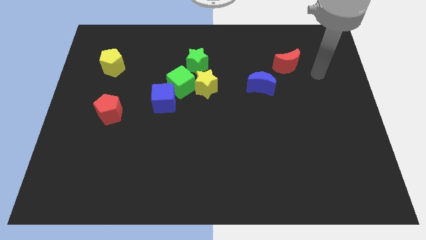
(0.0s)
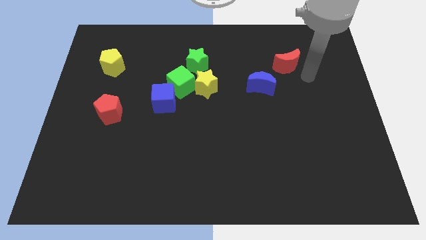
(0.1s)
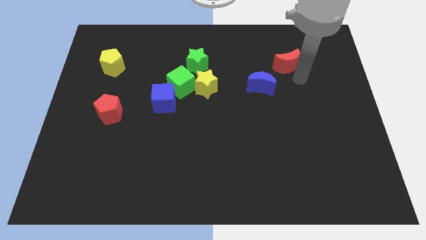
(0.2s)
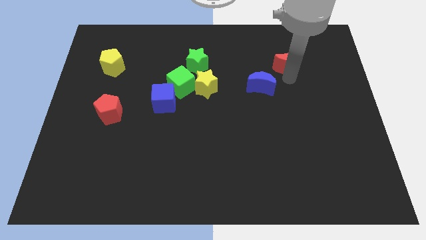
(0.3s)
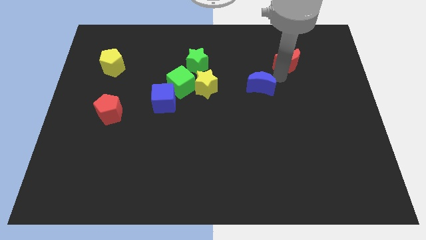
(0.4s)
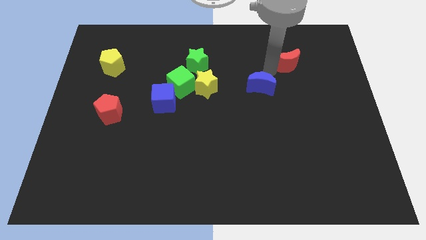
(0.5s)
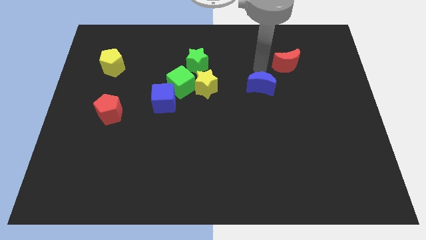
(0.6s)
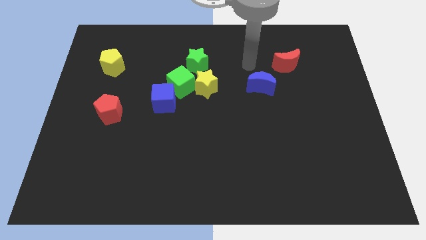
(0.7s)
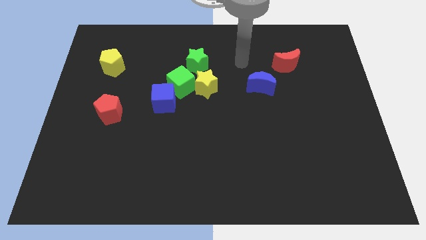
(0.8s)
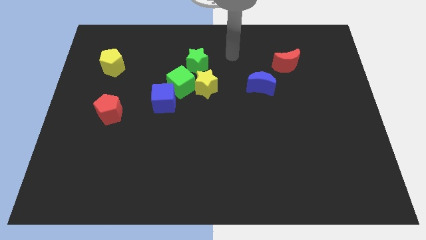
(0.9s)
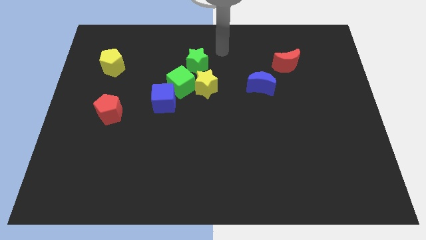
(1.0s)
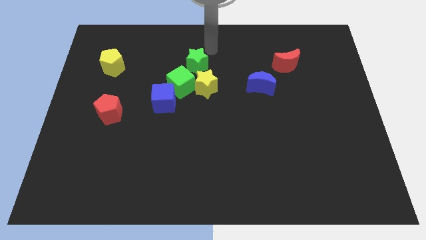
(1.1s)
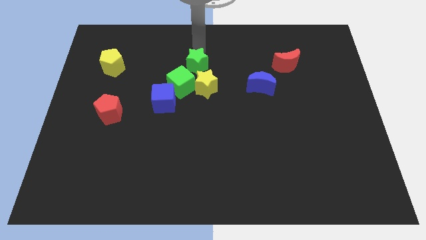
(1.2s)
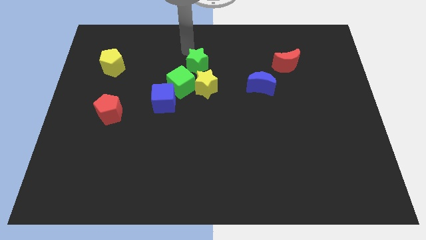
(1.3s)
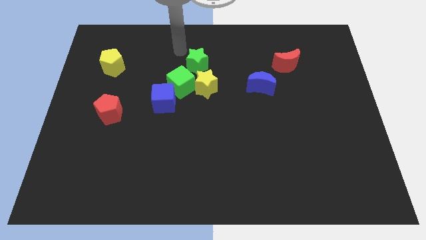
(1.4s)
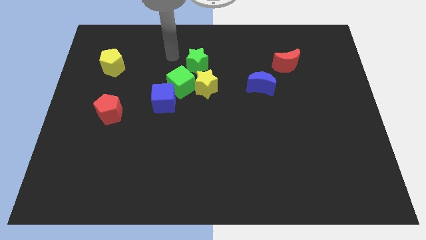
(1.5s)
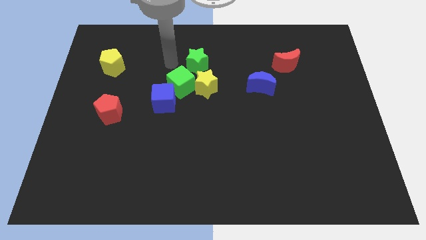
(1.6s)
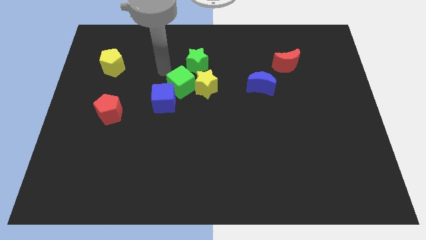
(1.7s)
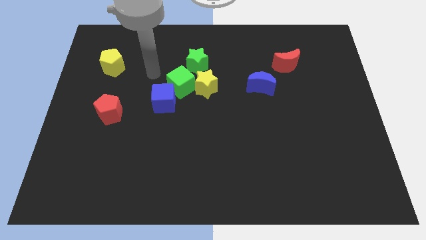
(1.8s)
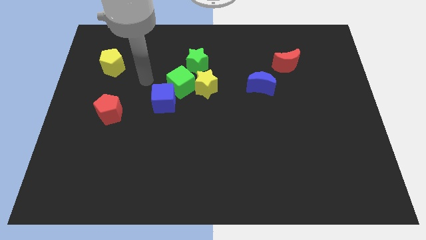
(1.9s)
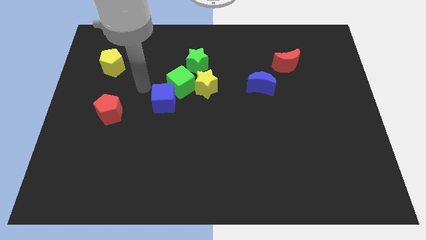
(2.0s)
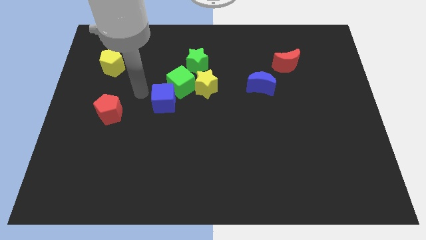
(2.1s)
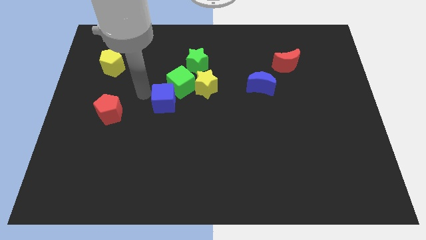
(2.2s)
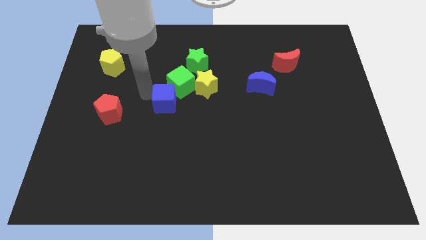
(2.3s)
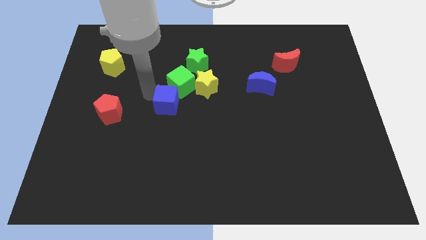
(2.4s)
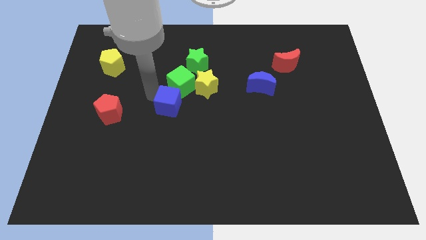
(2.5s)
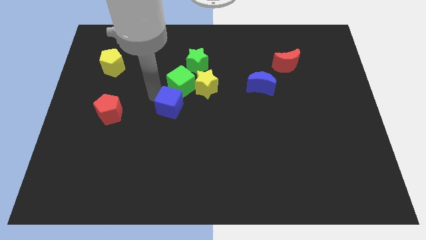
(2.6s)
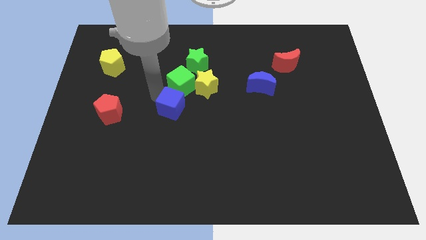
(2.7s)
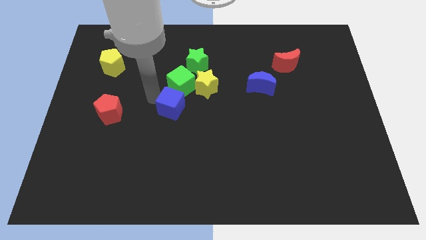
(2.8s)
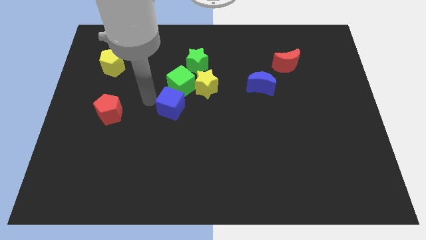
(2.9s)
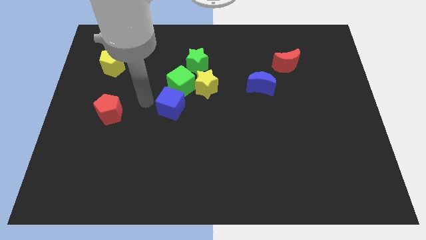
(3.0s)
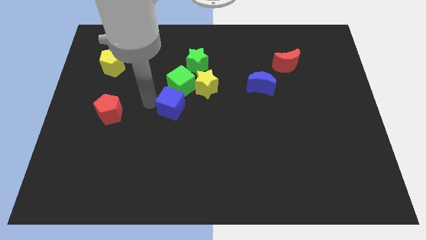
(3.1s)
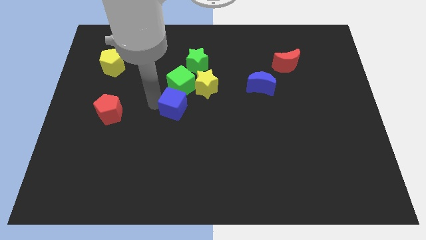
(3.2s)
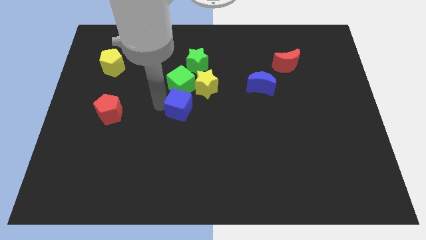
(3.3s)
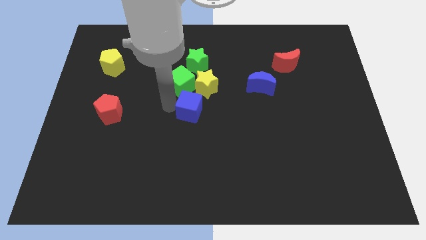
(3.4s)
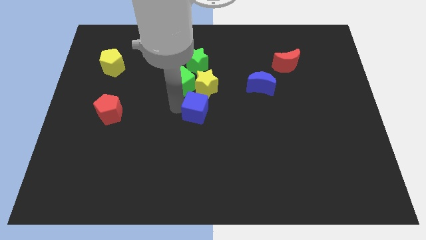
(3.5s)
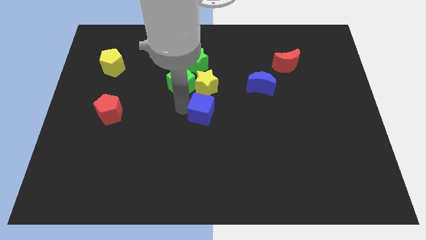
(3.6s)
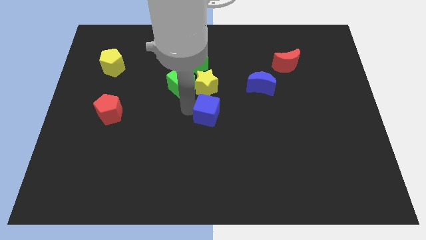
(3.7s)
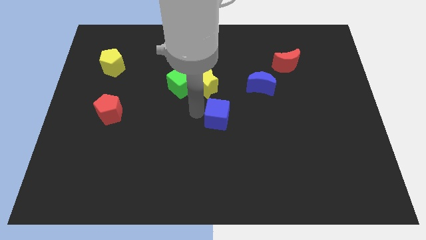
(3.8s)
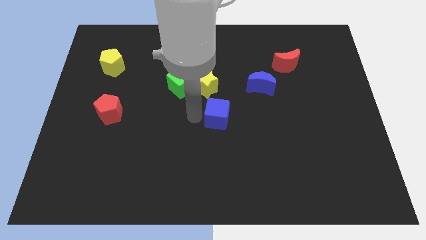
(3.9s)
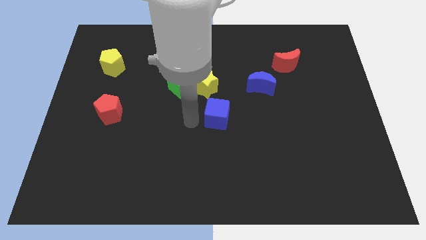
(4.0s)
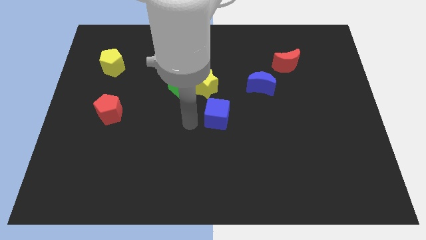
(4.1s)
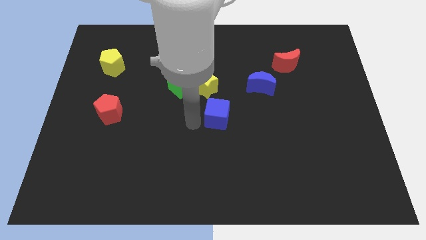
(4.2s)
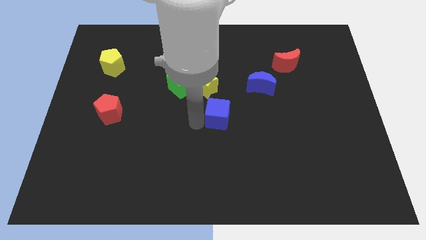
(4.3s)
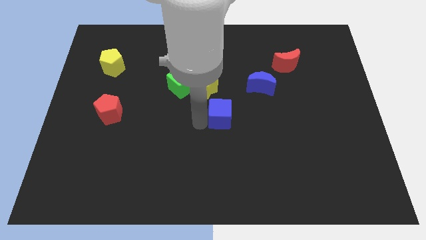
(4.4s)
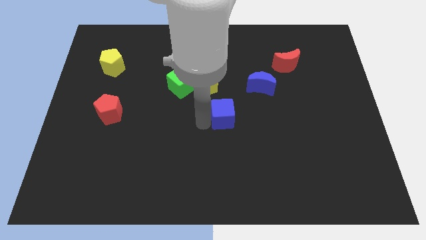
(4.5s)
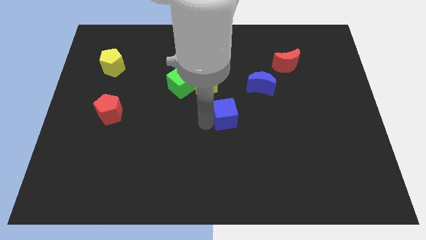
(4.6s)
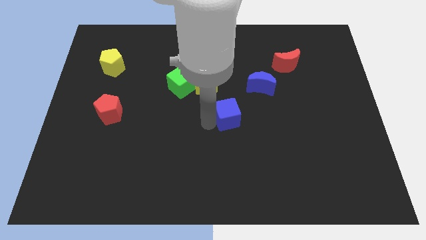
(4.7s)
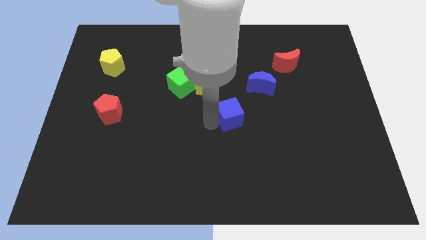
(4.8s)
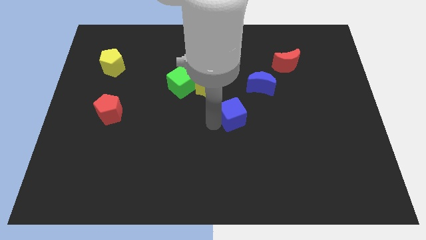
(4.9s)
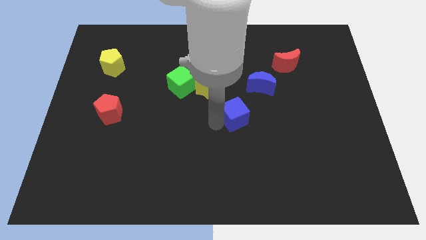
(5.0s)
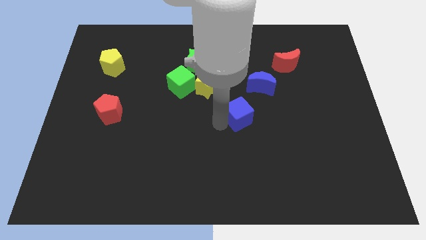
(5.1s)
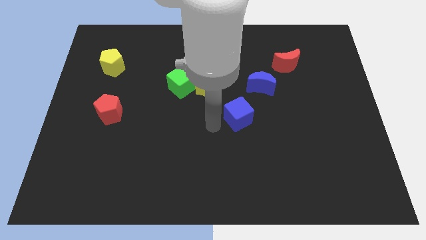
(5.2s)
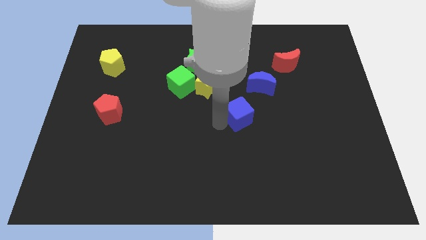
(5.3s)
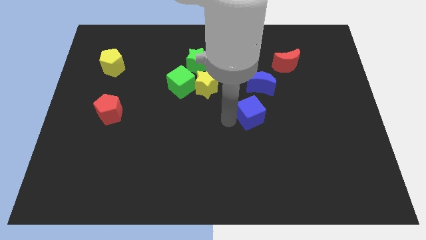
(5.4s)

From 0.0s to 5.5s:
move the blue cube to the right

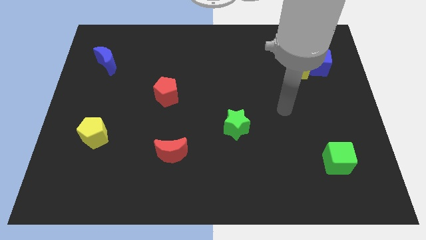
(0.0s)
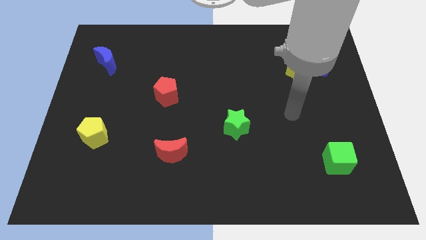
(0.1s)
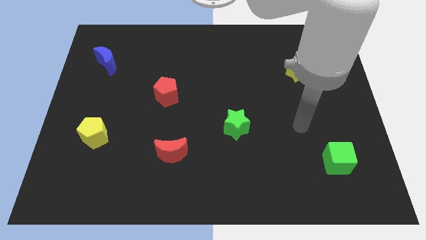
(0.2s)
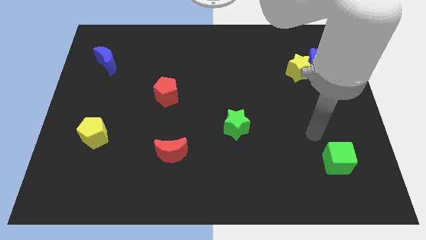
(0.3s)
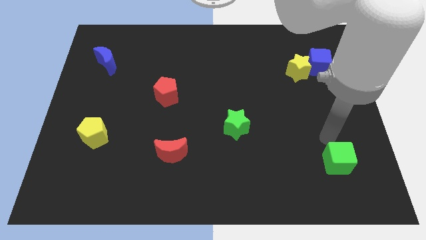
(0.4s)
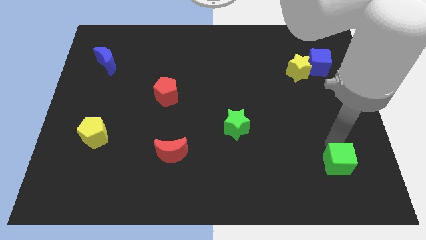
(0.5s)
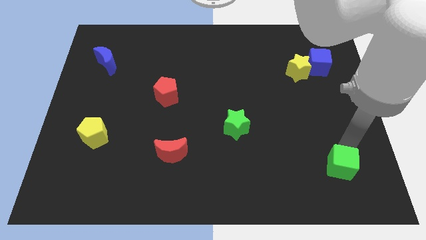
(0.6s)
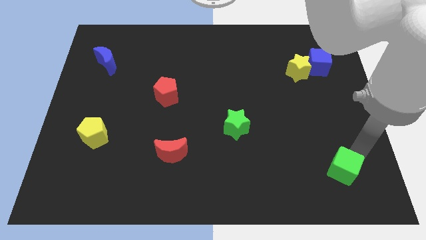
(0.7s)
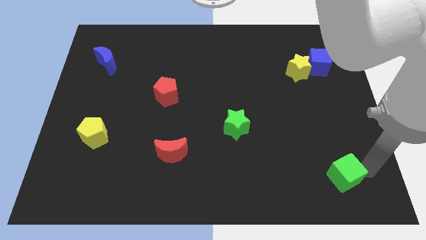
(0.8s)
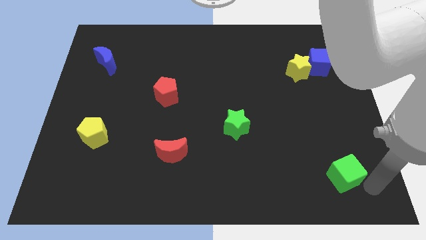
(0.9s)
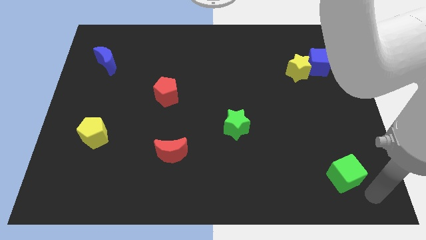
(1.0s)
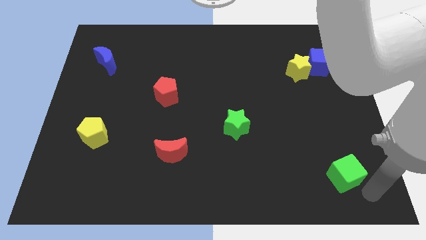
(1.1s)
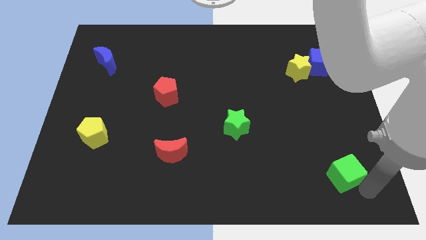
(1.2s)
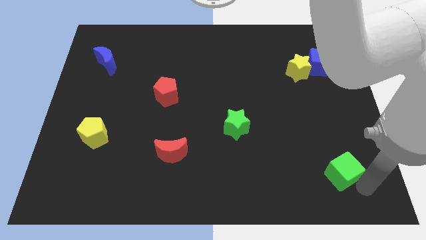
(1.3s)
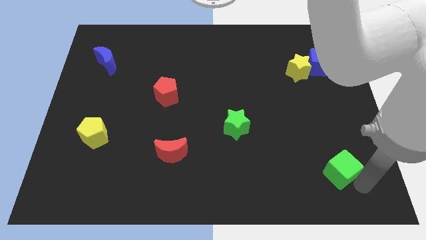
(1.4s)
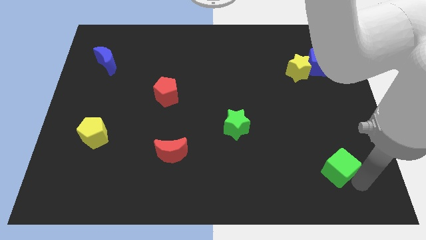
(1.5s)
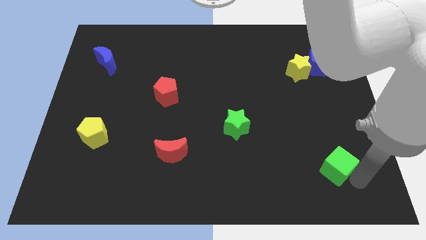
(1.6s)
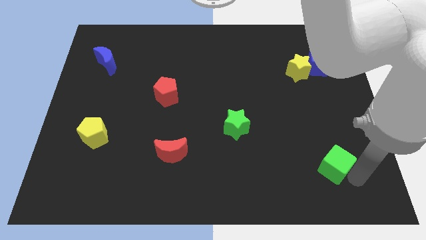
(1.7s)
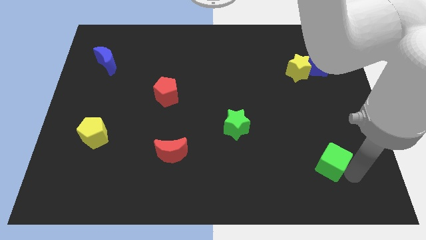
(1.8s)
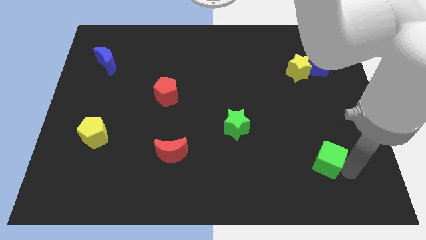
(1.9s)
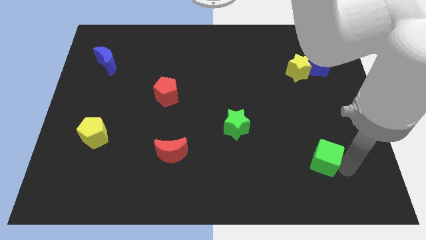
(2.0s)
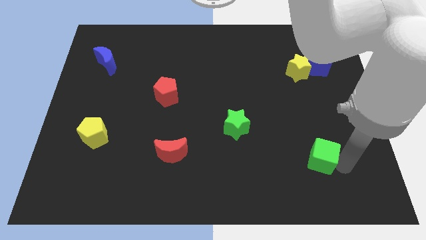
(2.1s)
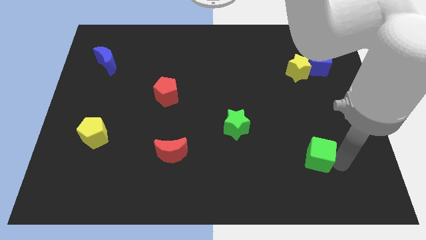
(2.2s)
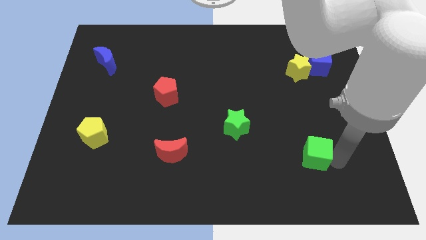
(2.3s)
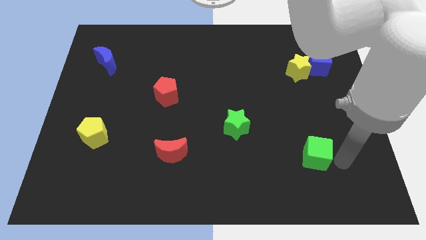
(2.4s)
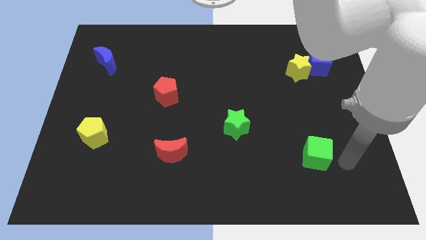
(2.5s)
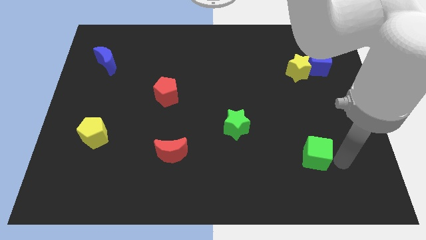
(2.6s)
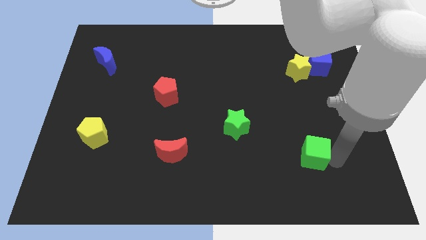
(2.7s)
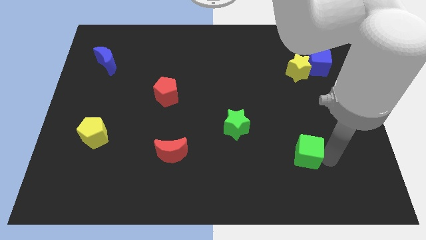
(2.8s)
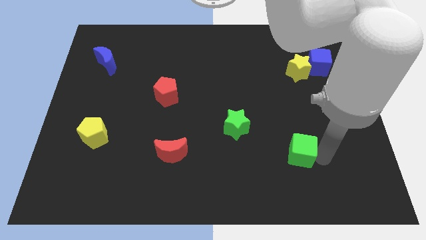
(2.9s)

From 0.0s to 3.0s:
slightly move the green cube left
